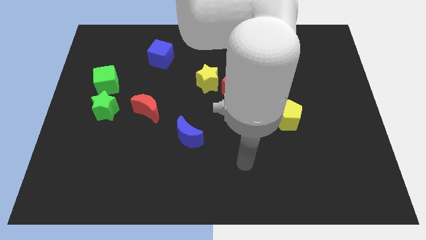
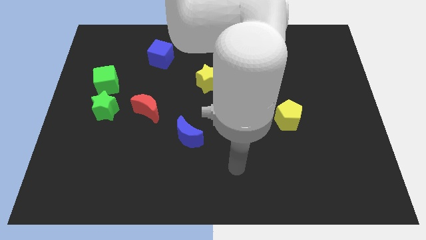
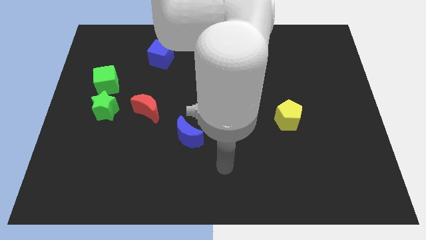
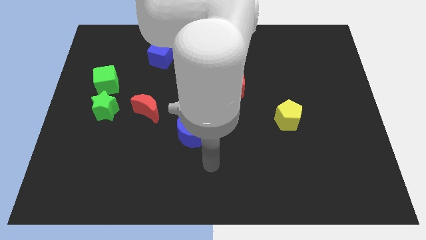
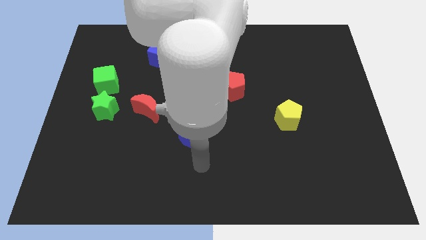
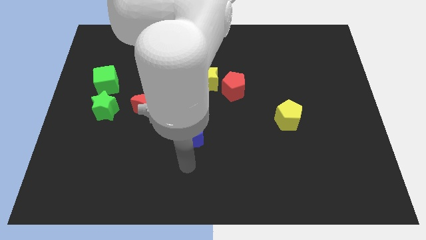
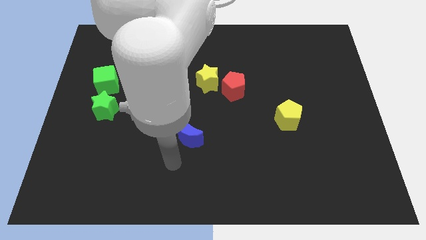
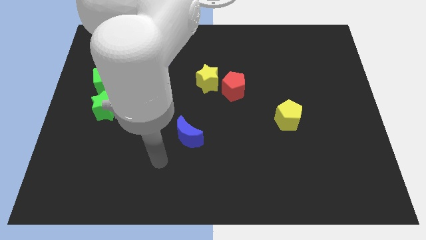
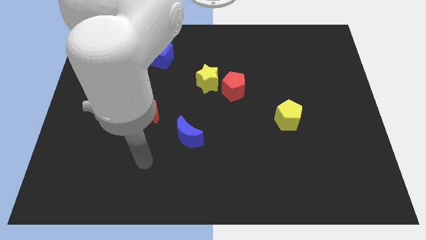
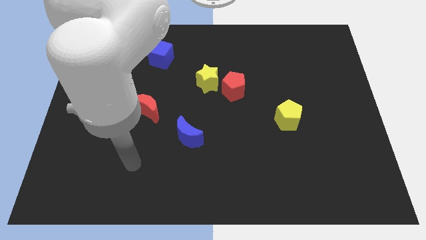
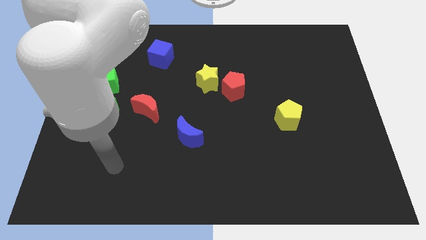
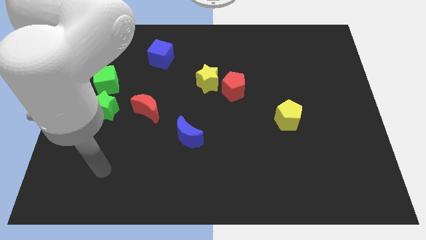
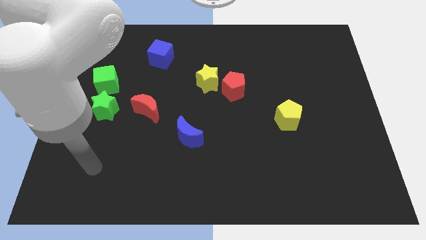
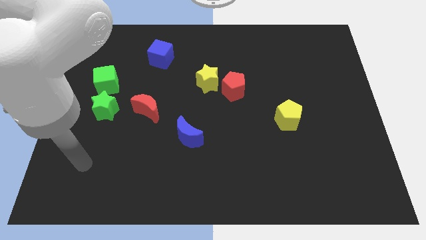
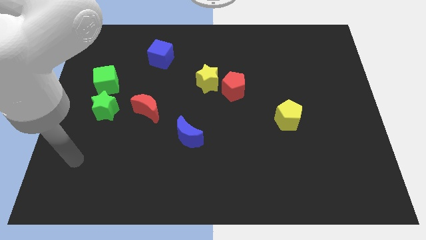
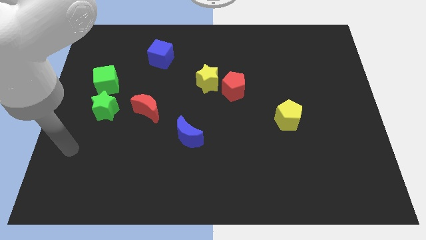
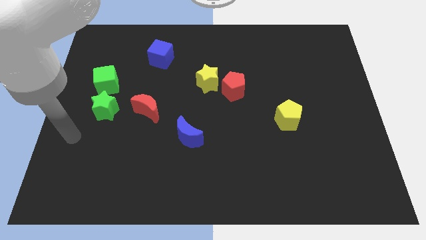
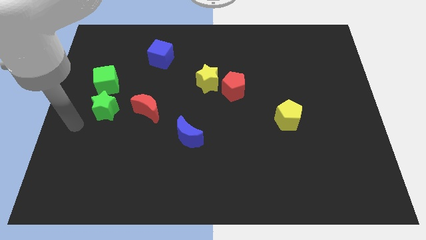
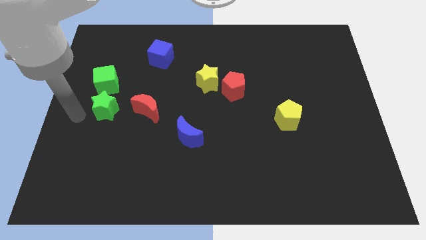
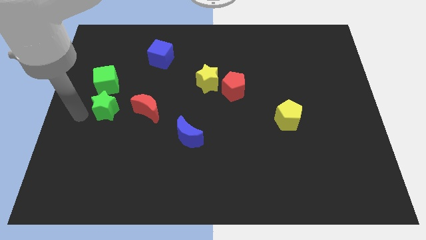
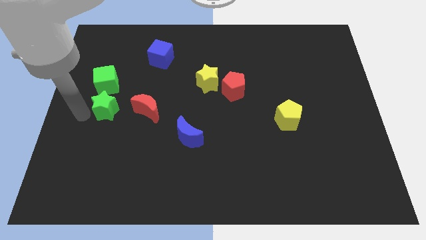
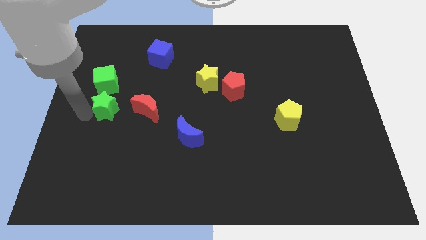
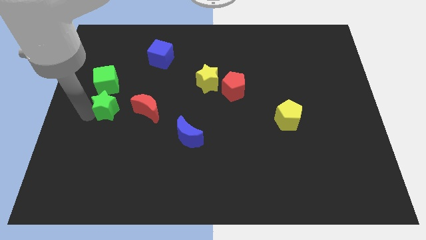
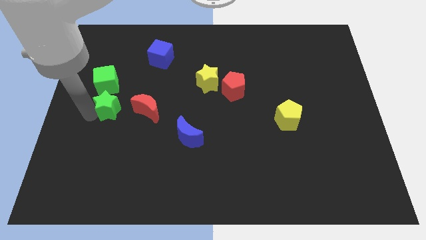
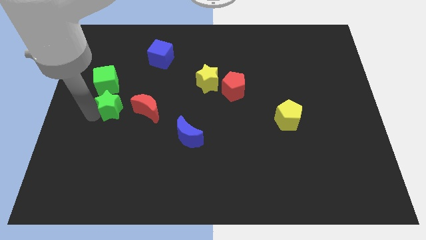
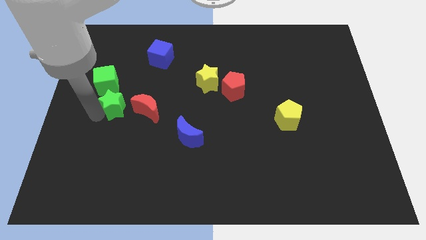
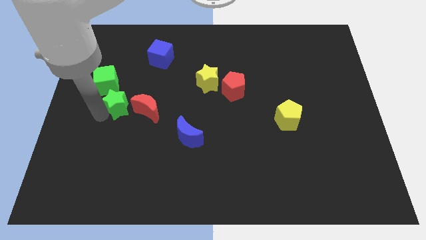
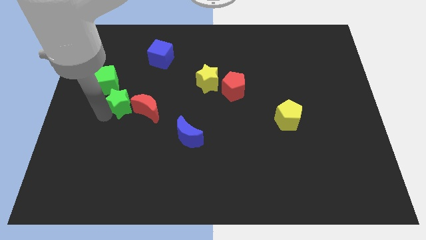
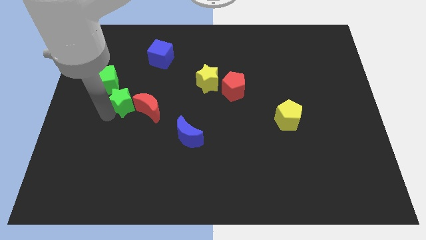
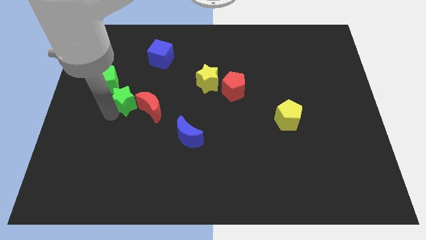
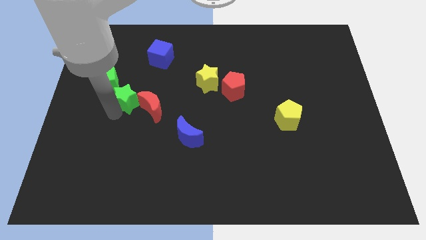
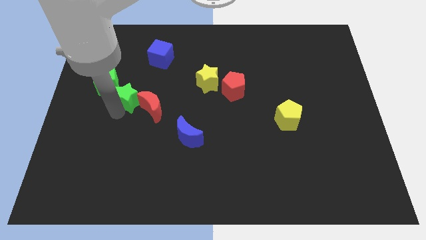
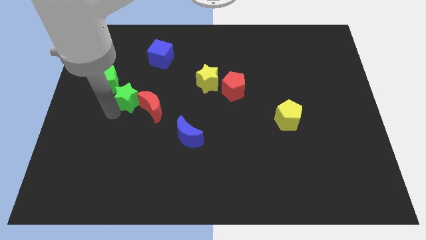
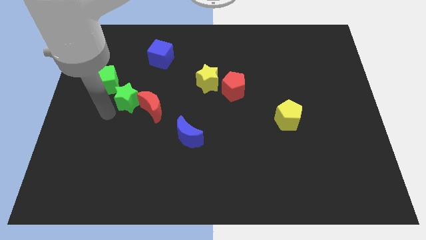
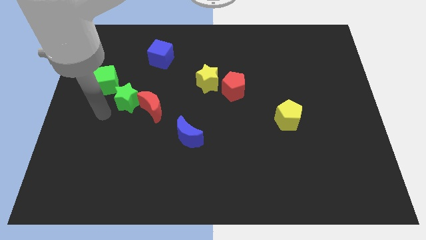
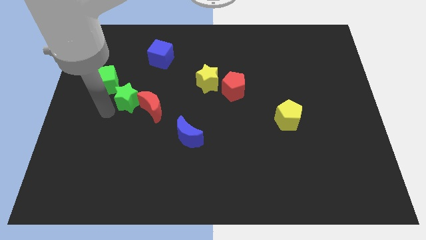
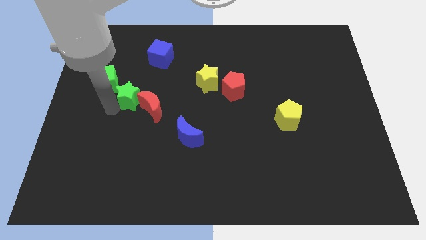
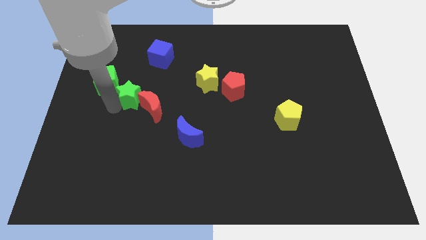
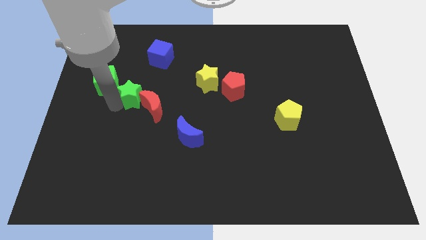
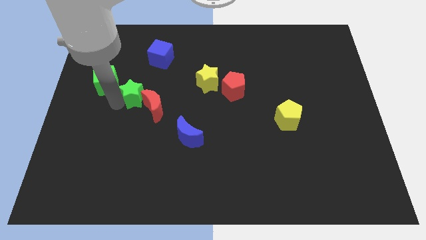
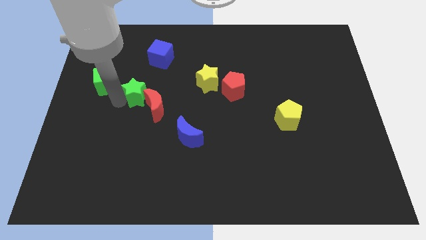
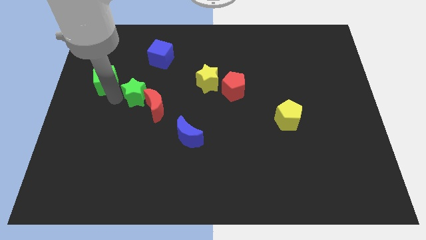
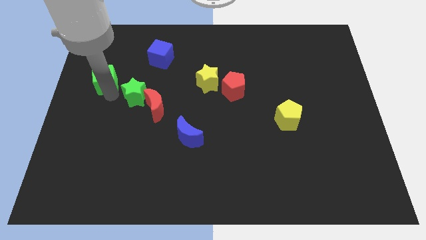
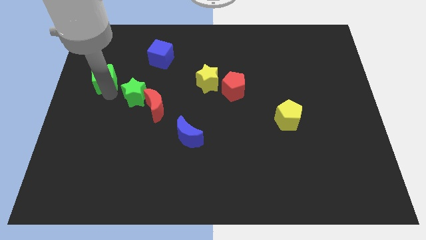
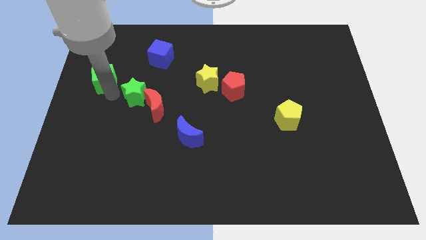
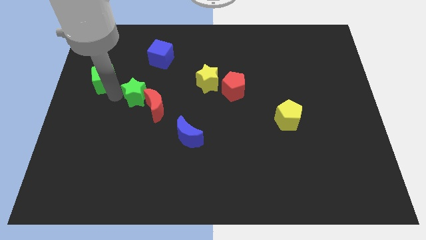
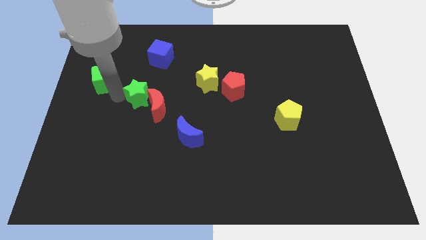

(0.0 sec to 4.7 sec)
slide the green star slightly to the right

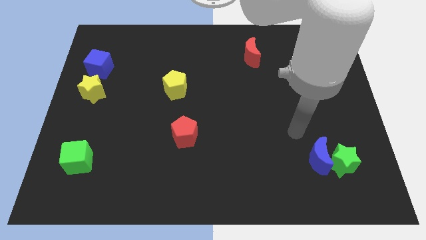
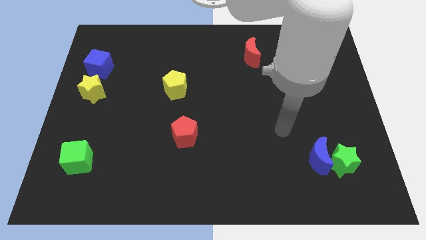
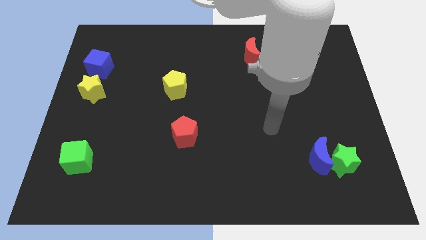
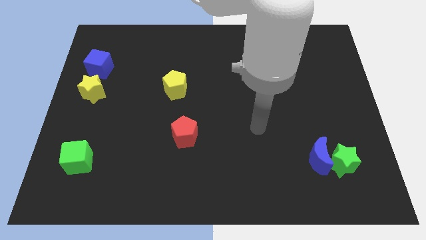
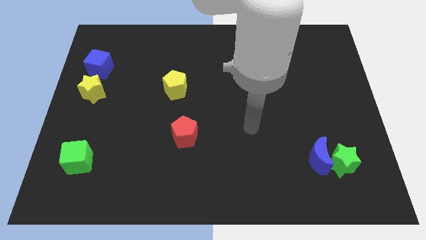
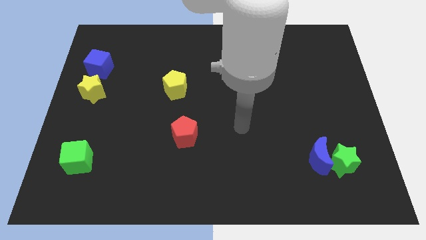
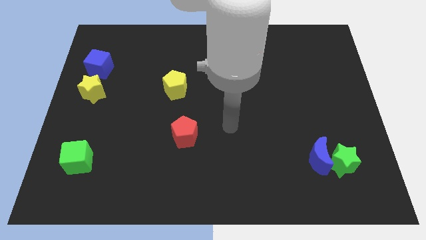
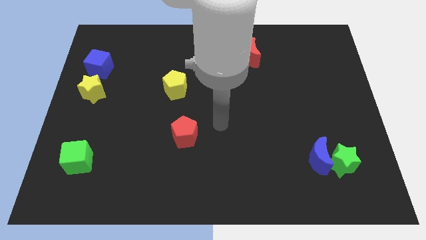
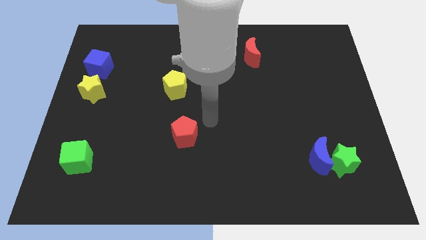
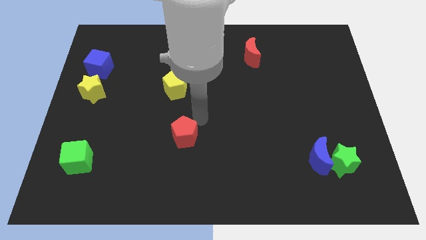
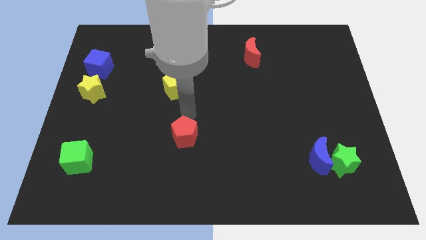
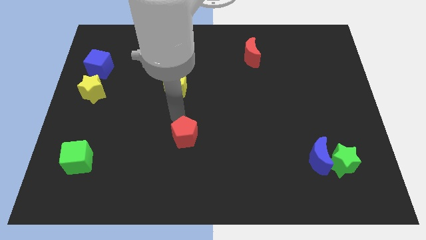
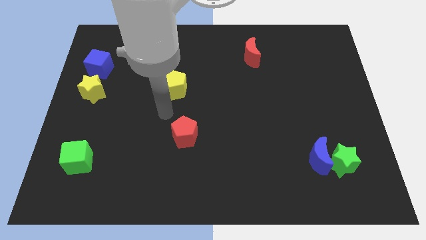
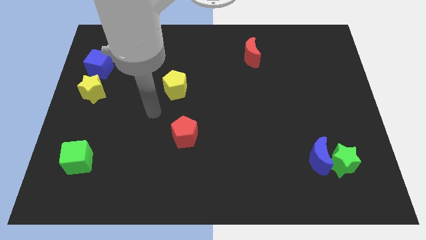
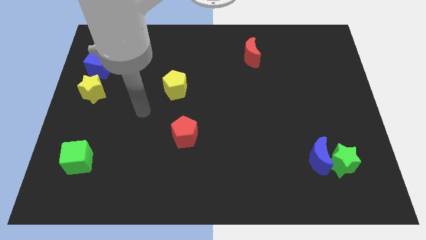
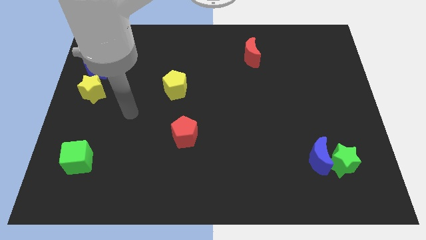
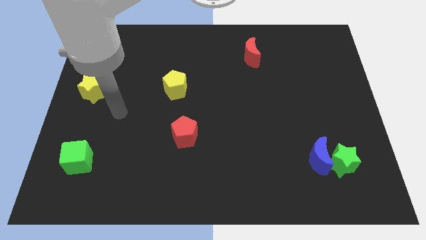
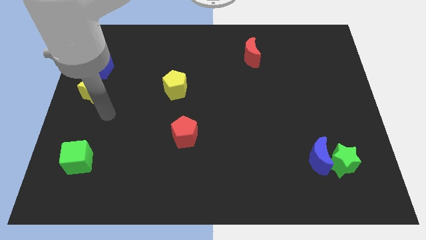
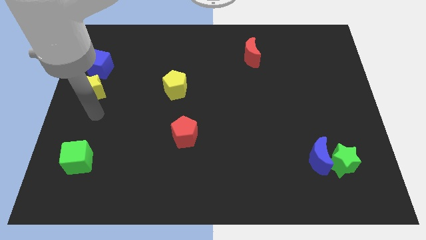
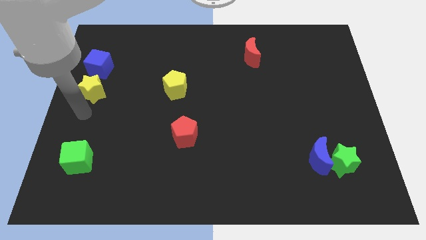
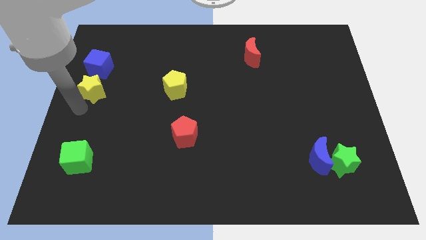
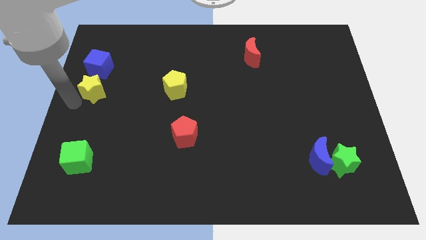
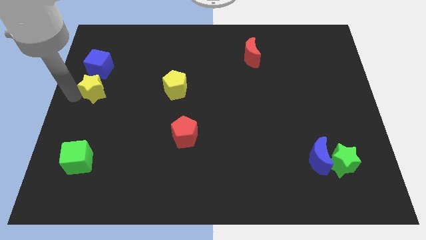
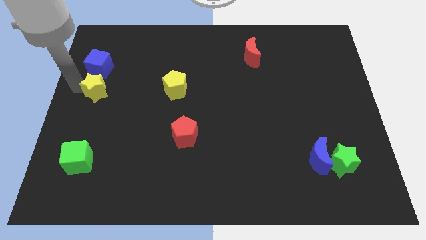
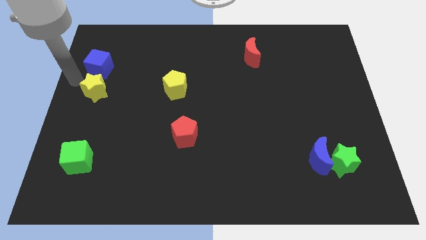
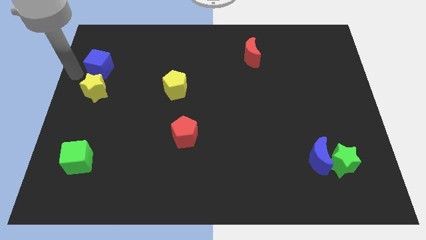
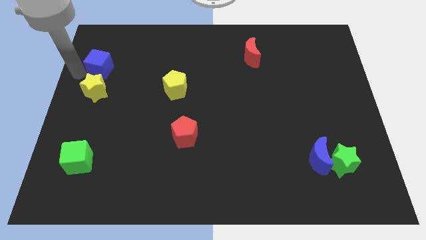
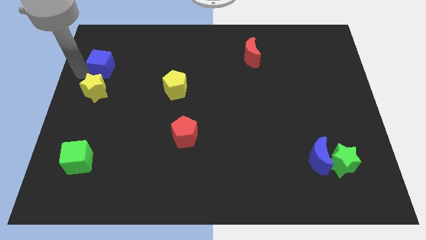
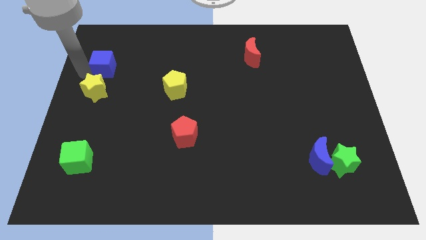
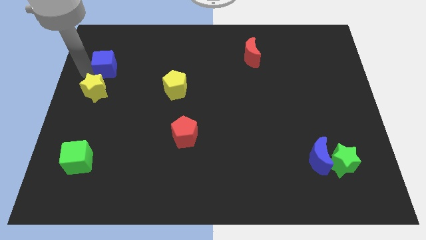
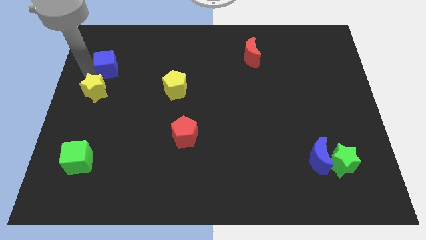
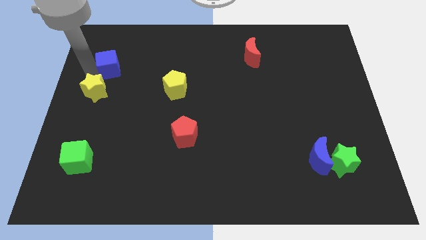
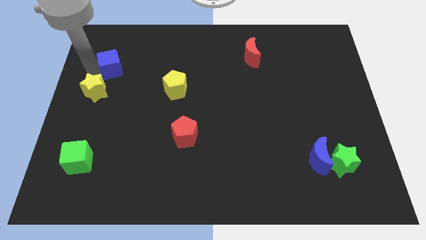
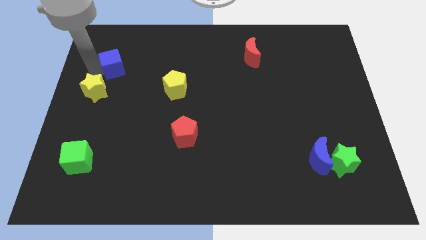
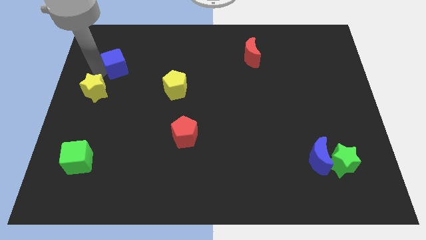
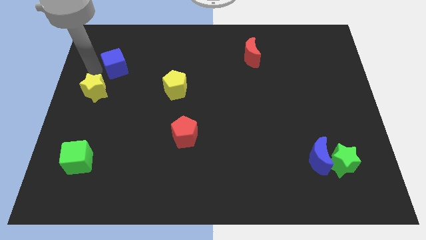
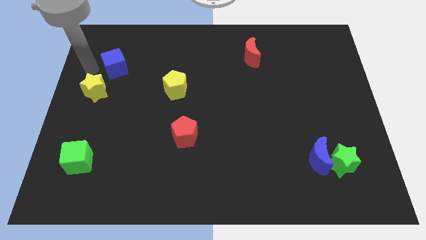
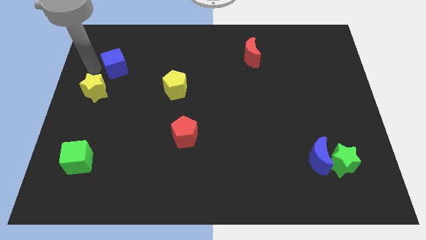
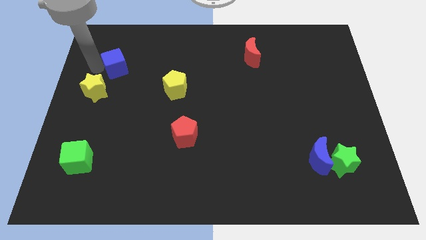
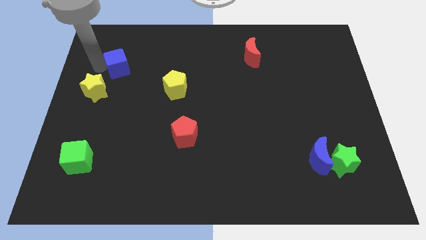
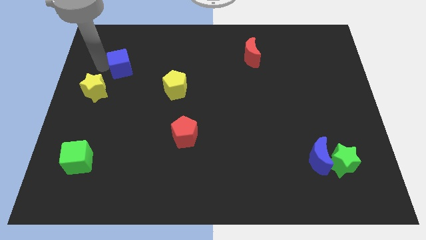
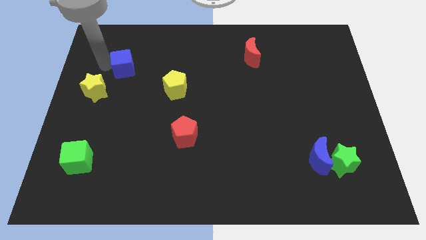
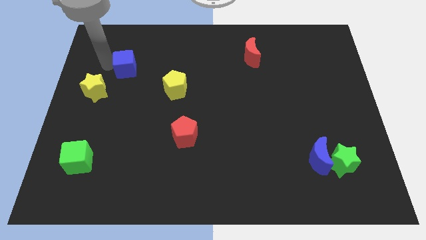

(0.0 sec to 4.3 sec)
slightly slide the blue cube to the right
